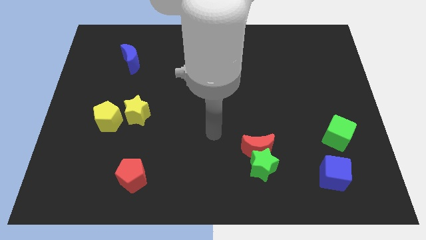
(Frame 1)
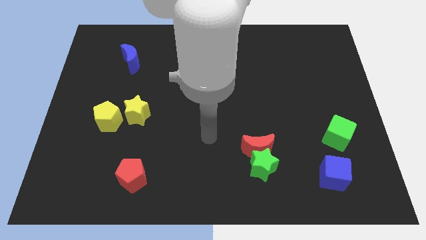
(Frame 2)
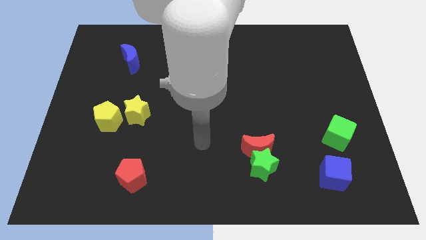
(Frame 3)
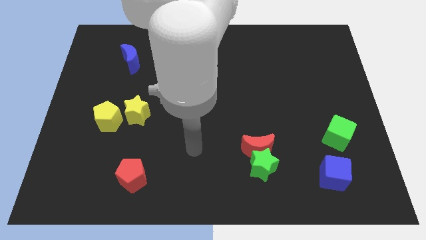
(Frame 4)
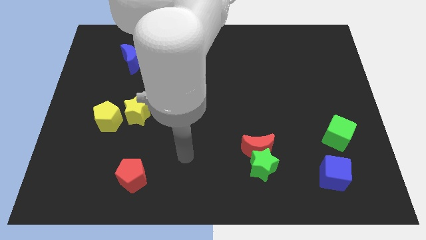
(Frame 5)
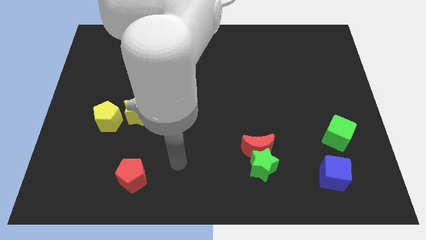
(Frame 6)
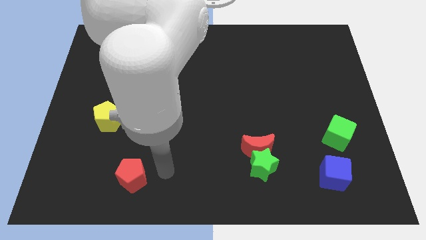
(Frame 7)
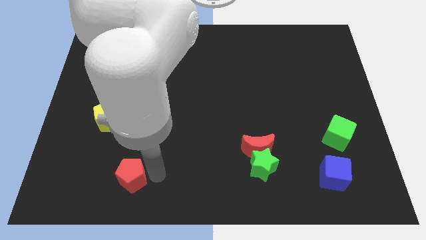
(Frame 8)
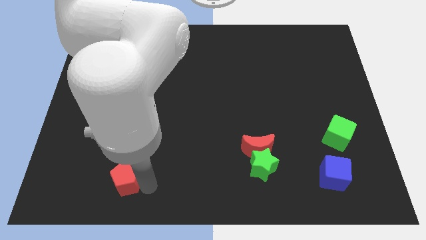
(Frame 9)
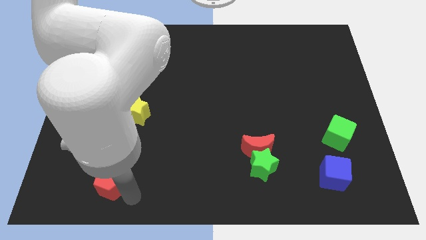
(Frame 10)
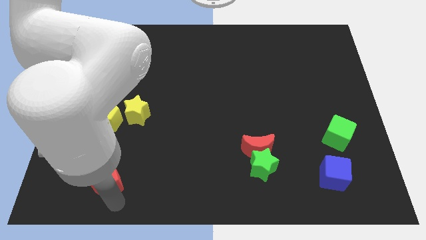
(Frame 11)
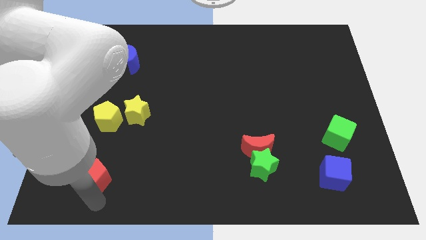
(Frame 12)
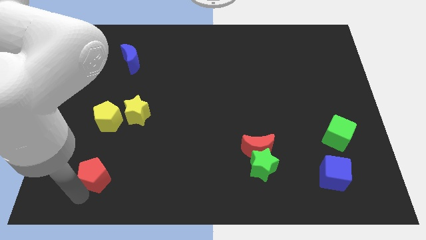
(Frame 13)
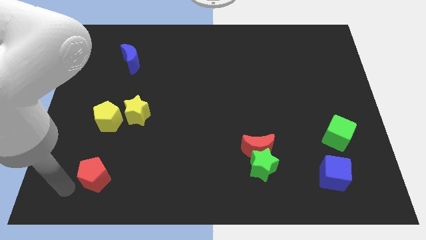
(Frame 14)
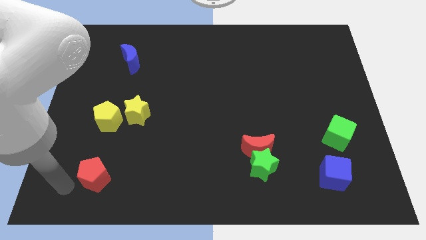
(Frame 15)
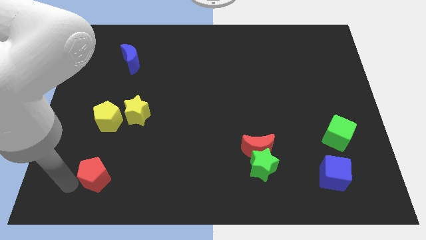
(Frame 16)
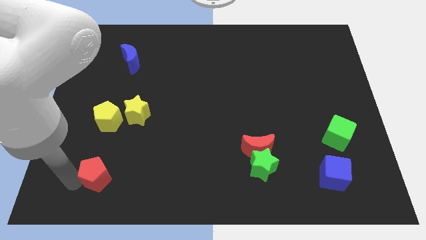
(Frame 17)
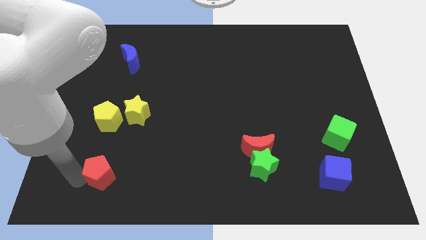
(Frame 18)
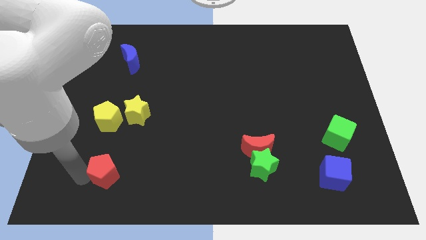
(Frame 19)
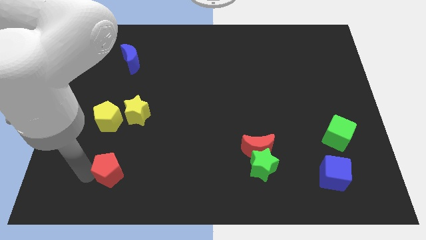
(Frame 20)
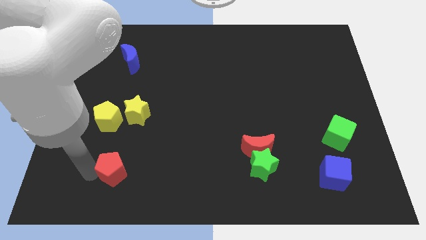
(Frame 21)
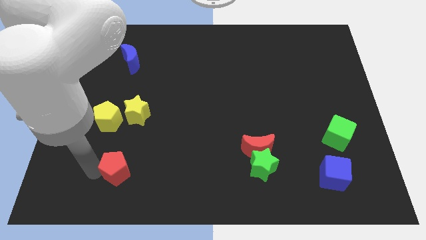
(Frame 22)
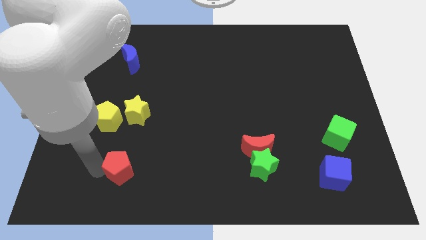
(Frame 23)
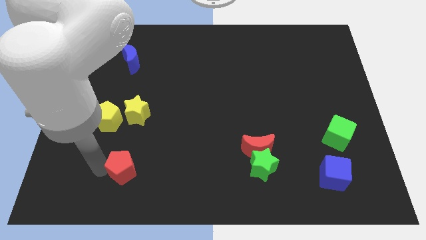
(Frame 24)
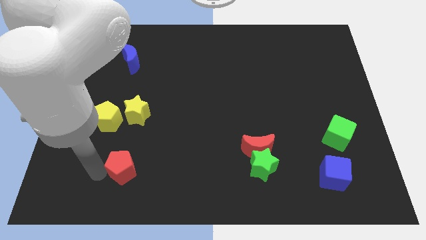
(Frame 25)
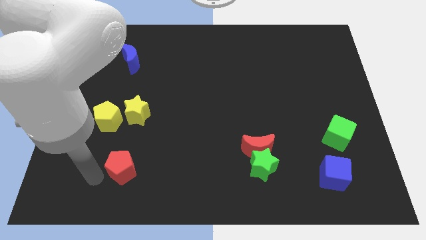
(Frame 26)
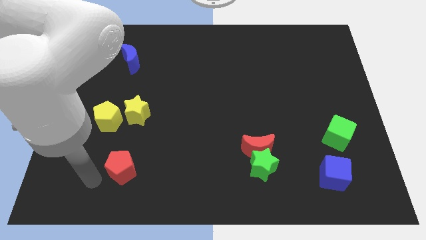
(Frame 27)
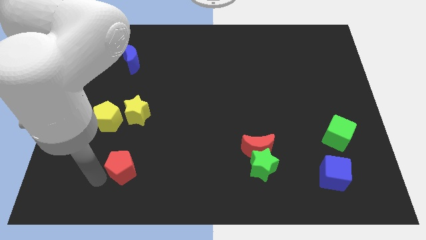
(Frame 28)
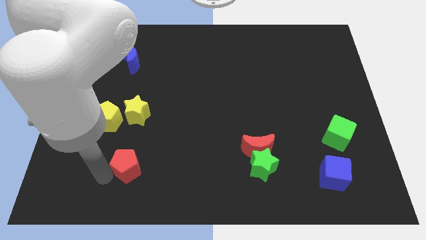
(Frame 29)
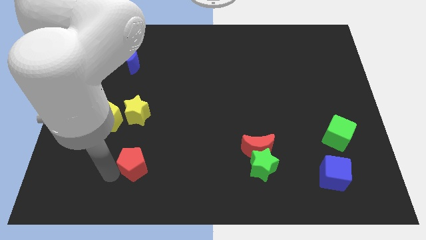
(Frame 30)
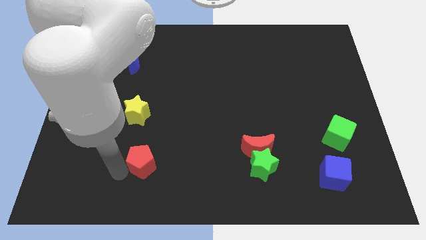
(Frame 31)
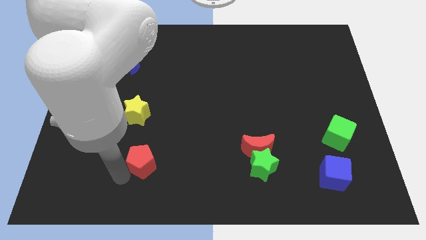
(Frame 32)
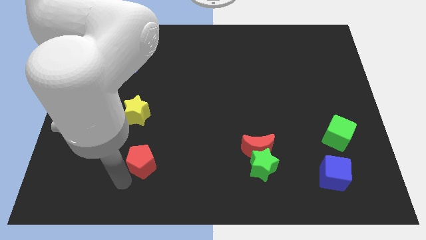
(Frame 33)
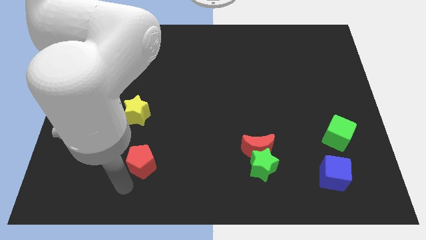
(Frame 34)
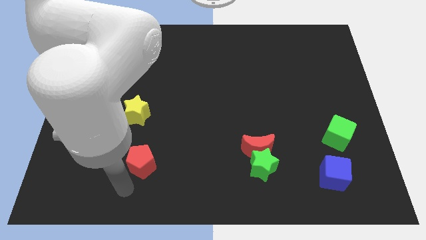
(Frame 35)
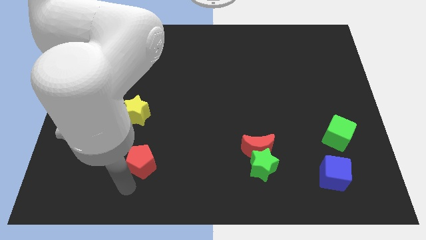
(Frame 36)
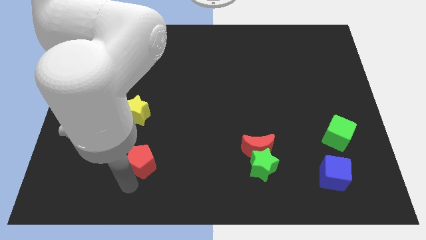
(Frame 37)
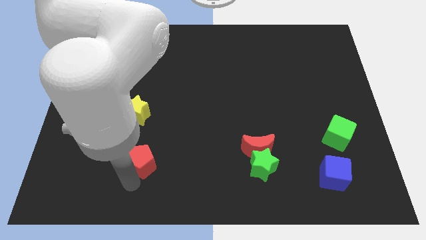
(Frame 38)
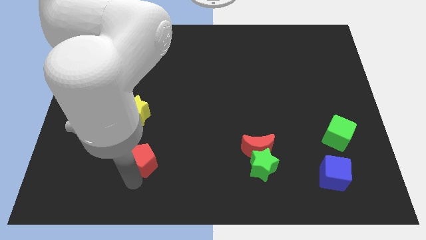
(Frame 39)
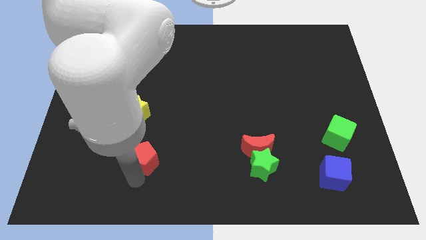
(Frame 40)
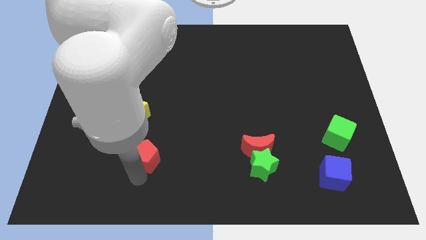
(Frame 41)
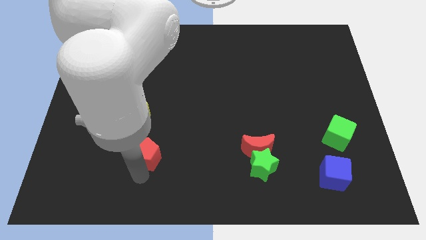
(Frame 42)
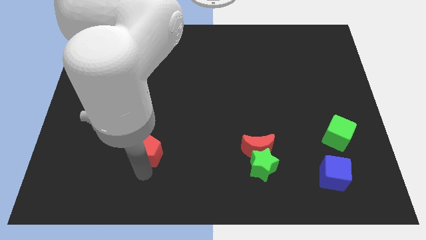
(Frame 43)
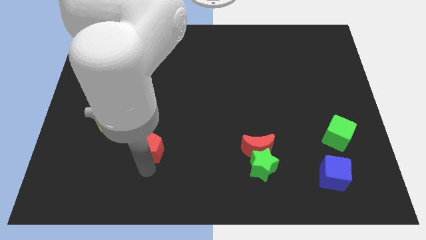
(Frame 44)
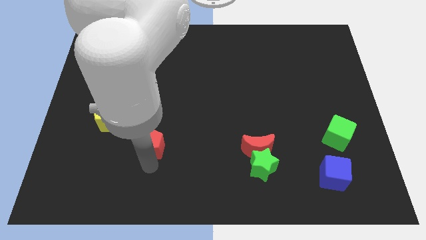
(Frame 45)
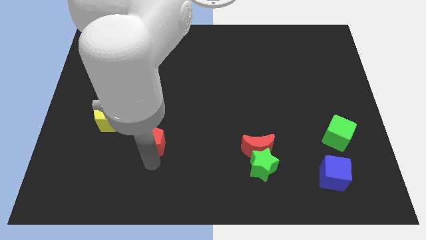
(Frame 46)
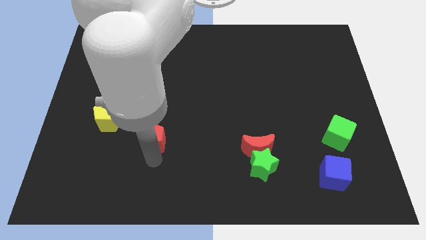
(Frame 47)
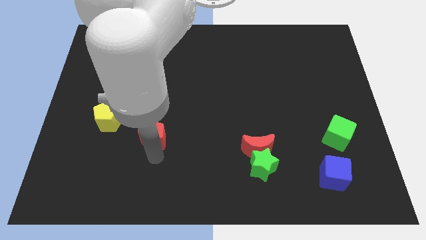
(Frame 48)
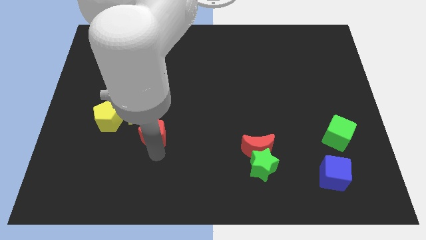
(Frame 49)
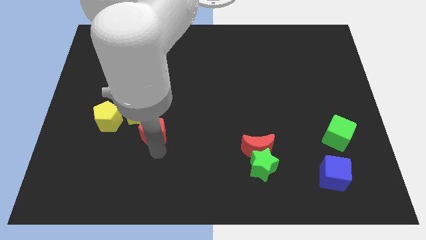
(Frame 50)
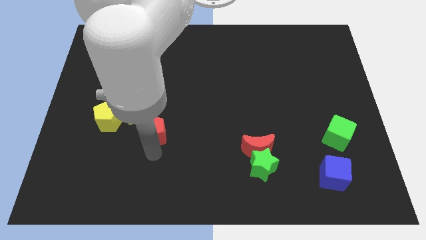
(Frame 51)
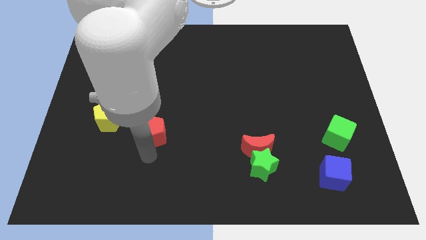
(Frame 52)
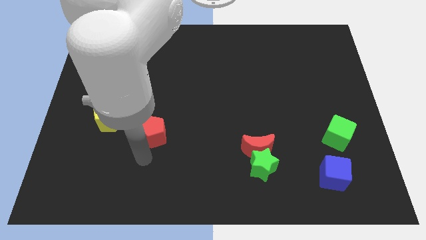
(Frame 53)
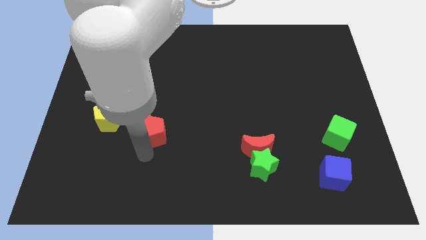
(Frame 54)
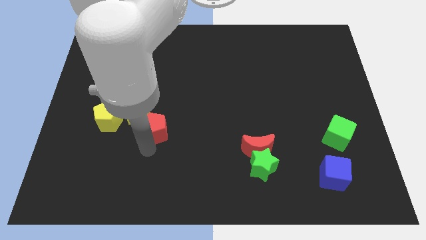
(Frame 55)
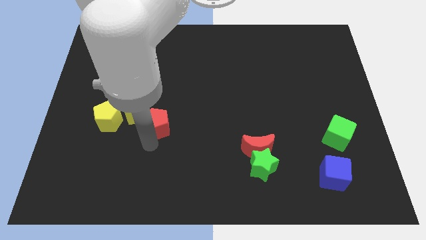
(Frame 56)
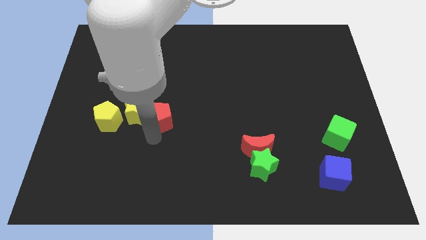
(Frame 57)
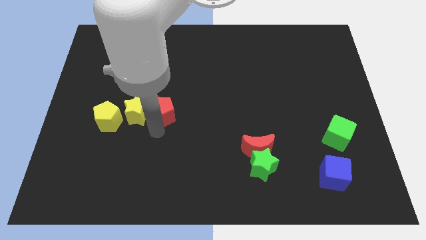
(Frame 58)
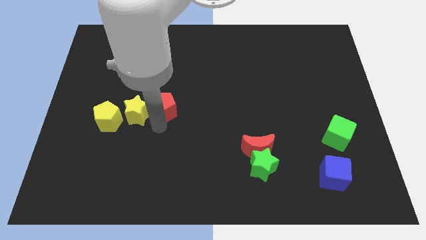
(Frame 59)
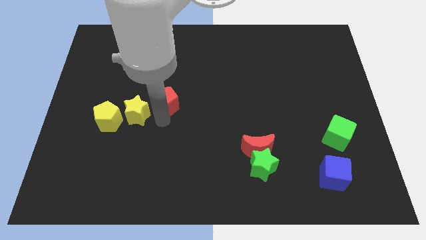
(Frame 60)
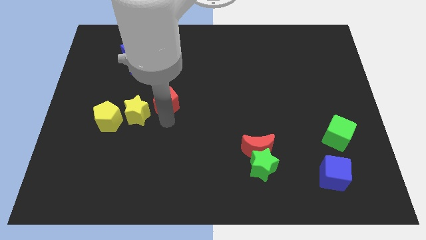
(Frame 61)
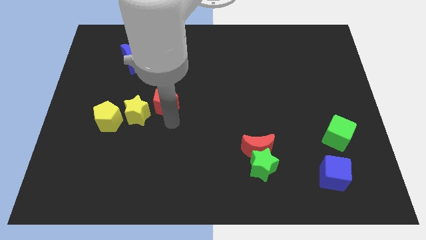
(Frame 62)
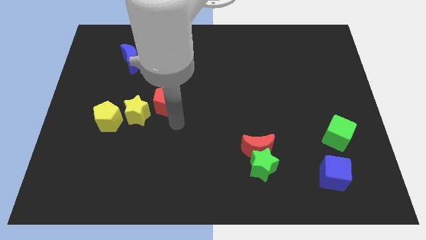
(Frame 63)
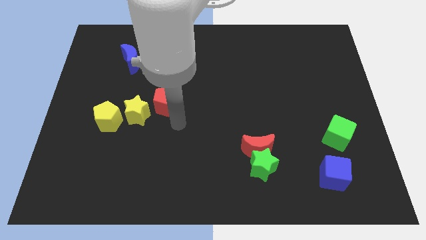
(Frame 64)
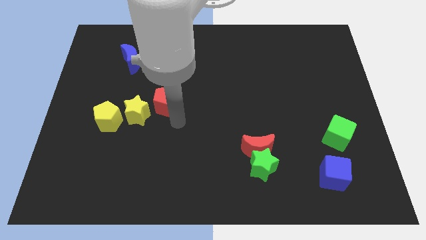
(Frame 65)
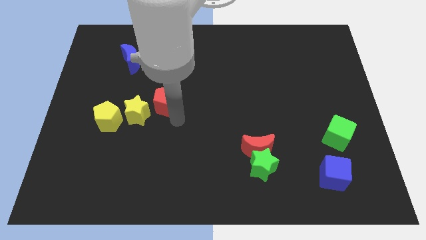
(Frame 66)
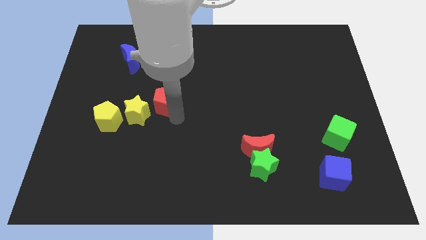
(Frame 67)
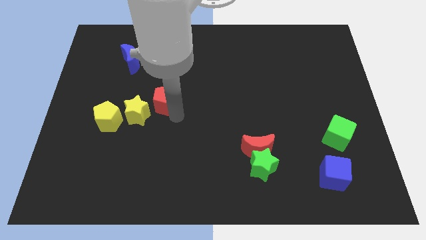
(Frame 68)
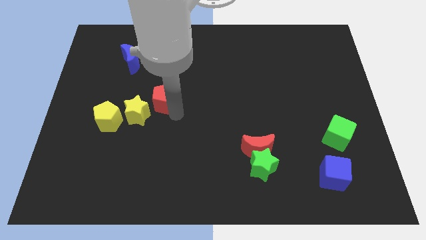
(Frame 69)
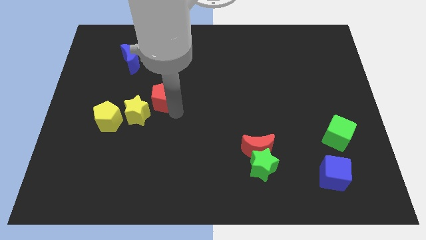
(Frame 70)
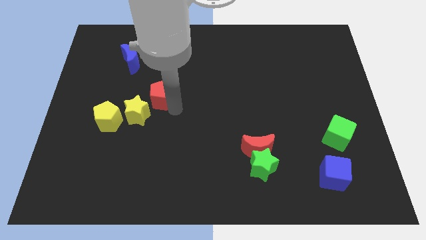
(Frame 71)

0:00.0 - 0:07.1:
move the red pentagon to the top of the yellow star

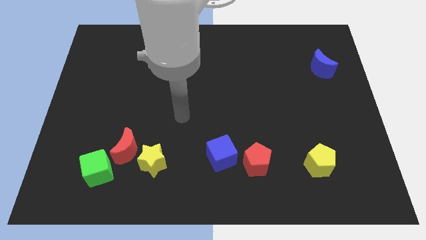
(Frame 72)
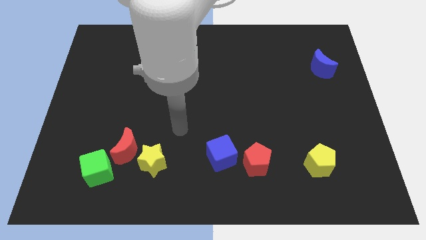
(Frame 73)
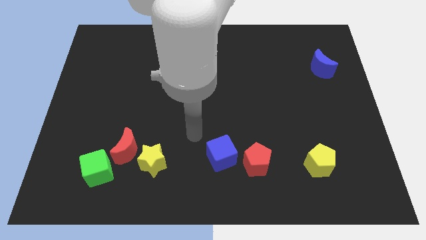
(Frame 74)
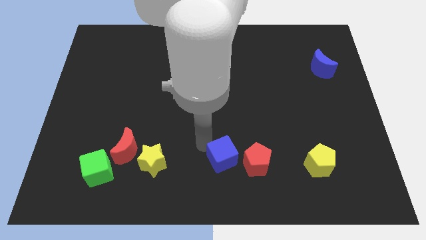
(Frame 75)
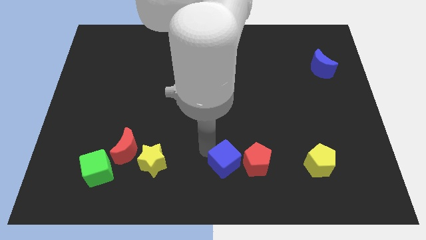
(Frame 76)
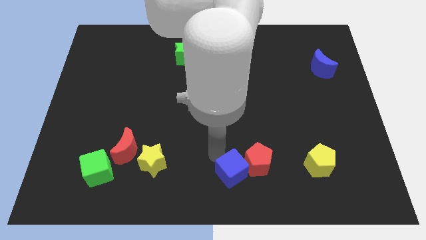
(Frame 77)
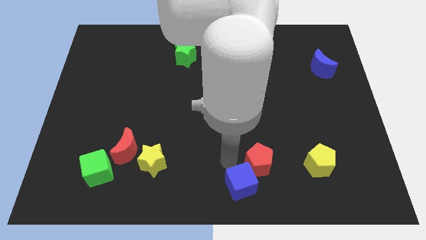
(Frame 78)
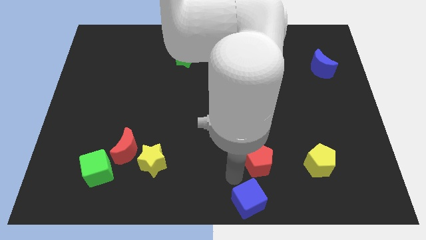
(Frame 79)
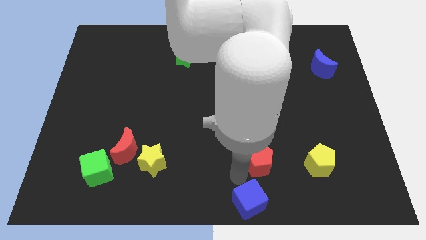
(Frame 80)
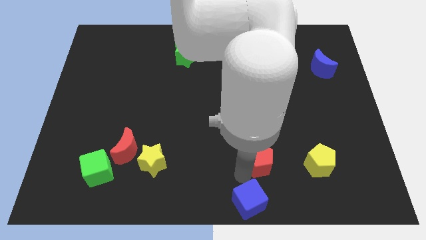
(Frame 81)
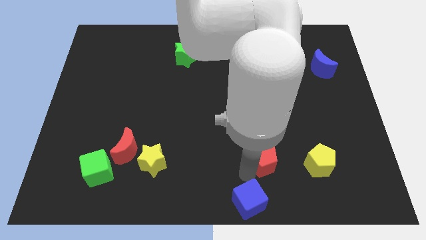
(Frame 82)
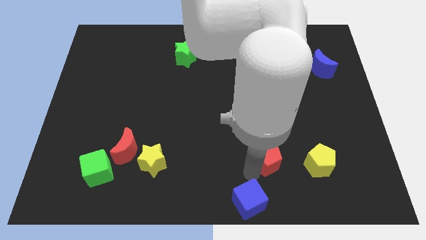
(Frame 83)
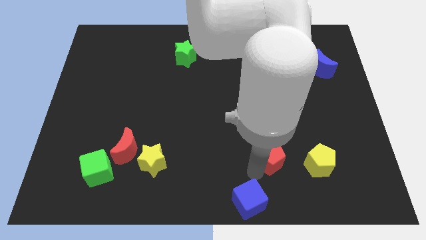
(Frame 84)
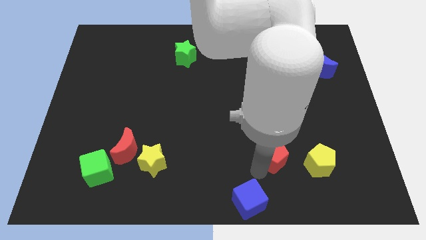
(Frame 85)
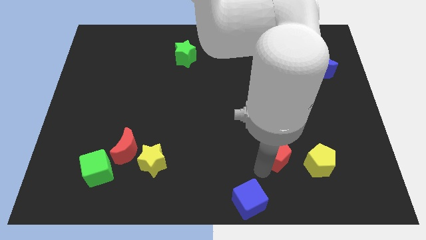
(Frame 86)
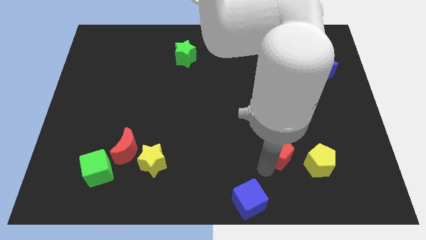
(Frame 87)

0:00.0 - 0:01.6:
push the red pentagon to the top left side of the yellow pentagon
